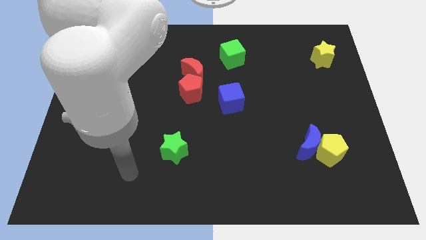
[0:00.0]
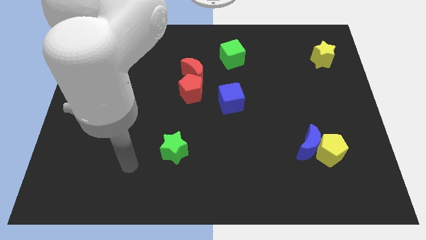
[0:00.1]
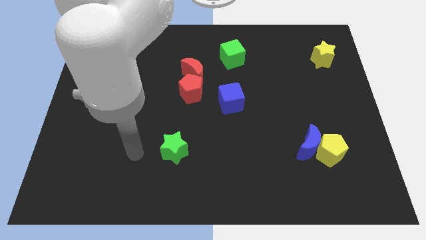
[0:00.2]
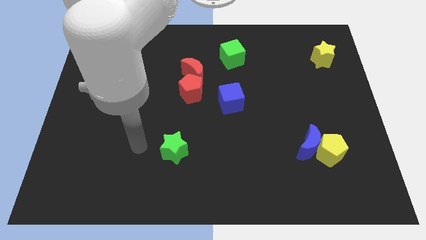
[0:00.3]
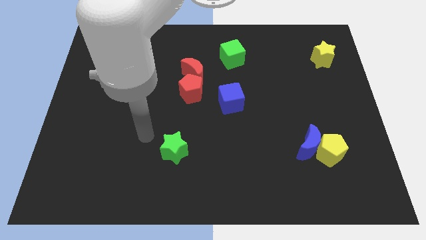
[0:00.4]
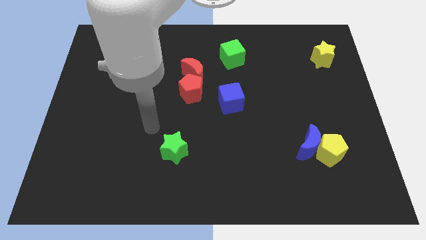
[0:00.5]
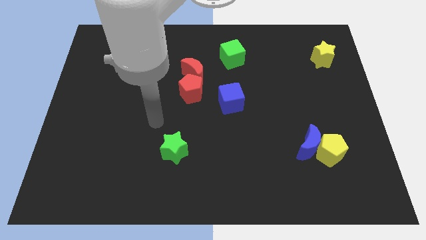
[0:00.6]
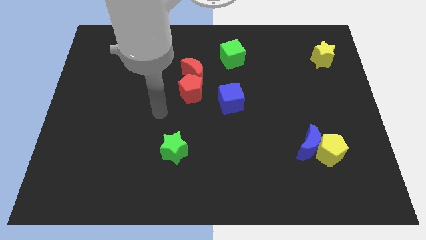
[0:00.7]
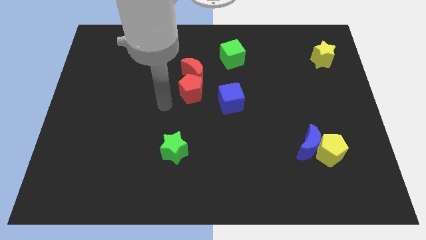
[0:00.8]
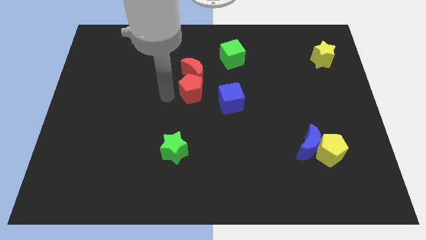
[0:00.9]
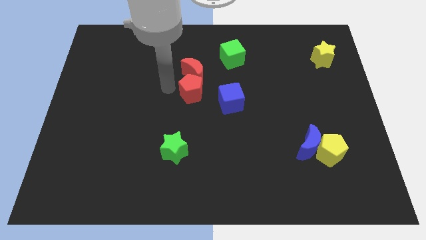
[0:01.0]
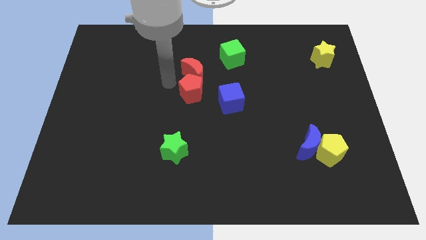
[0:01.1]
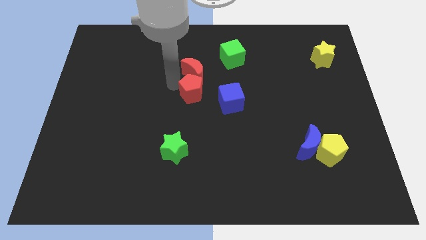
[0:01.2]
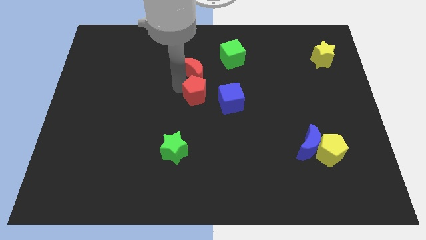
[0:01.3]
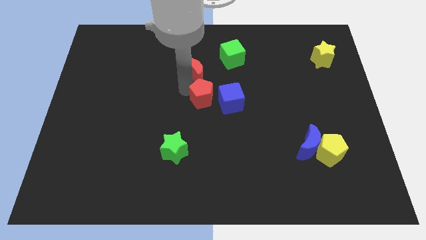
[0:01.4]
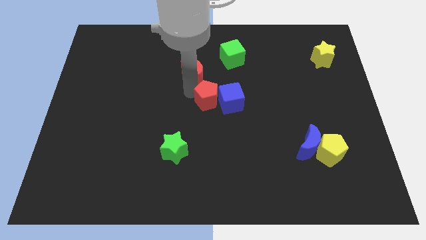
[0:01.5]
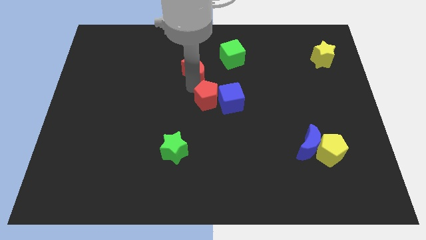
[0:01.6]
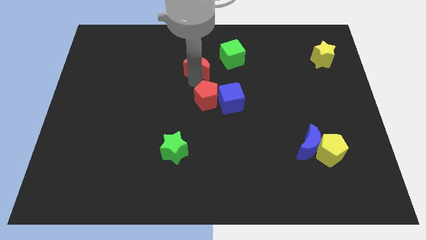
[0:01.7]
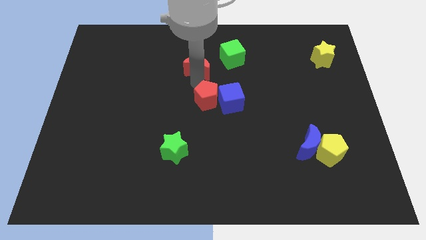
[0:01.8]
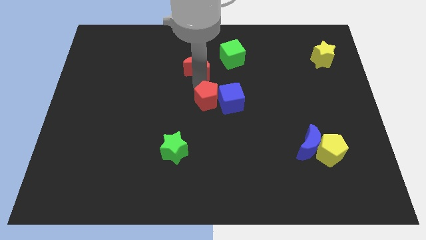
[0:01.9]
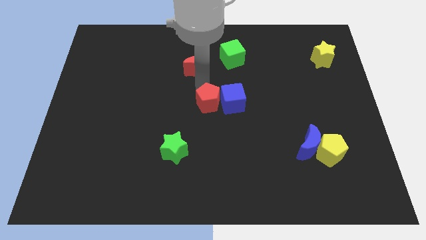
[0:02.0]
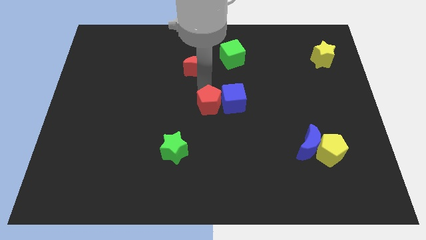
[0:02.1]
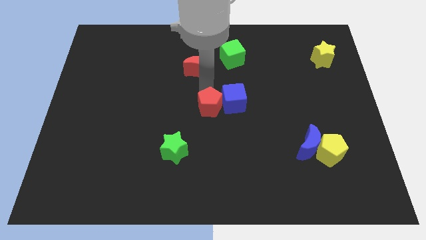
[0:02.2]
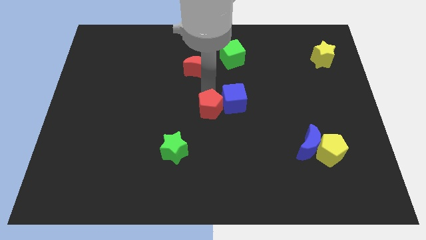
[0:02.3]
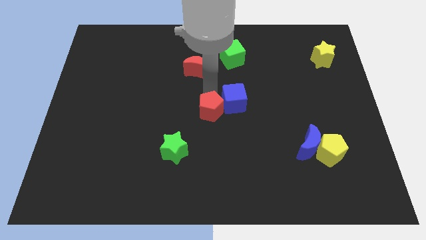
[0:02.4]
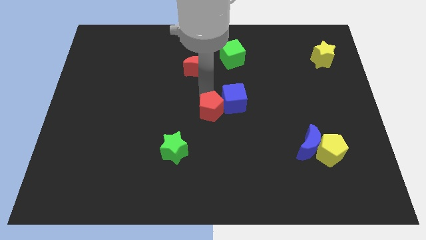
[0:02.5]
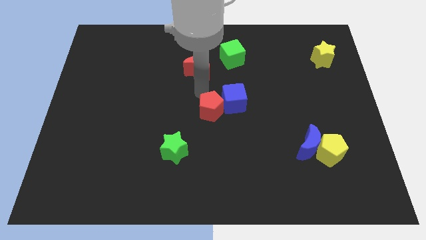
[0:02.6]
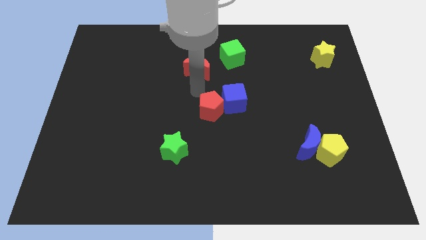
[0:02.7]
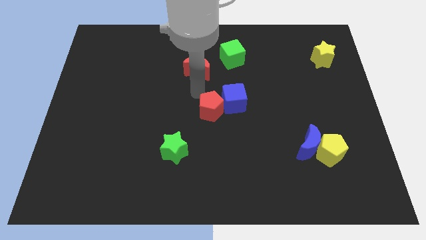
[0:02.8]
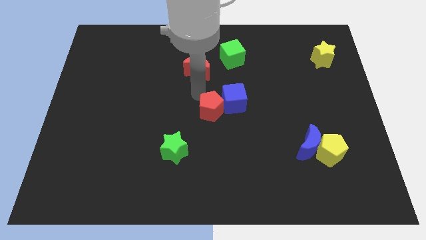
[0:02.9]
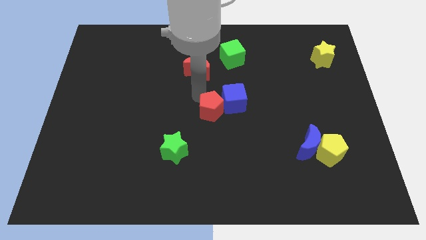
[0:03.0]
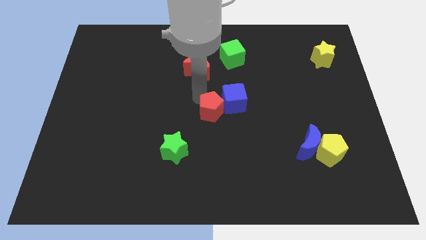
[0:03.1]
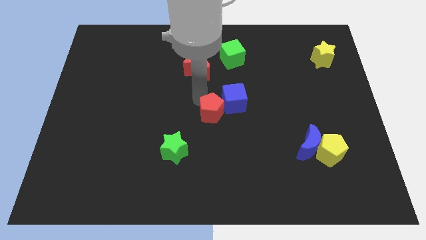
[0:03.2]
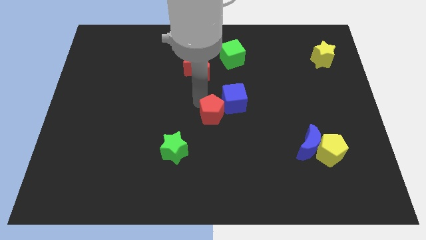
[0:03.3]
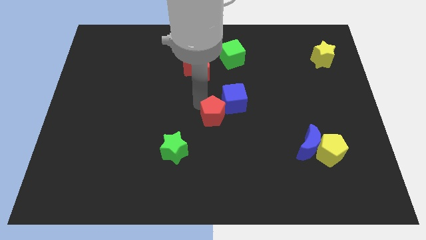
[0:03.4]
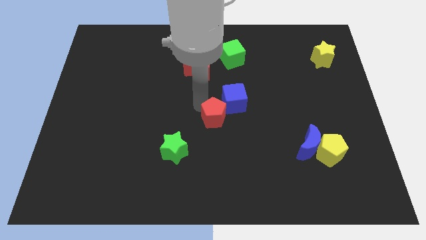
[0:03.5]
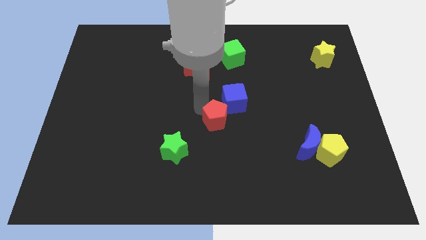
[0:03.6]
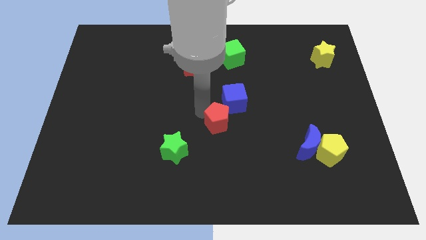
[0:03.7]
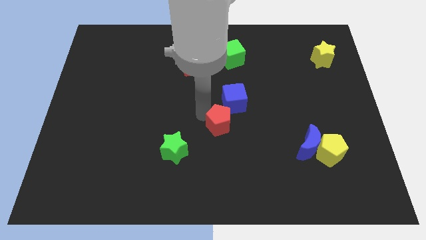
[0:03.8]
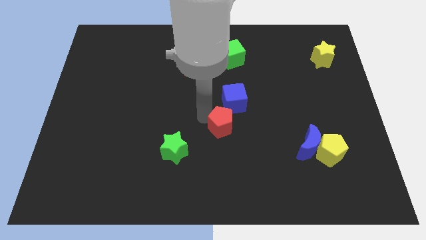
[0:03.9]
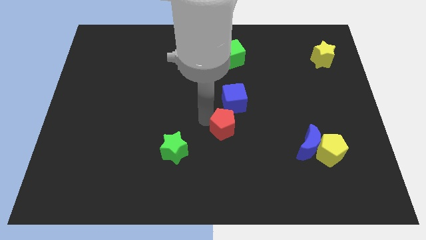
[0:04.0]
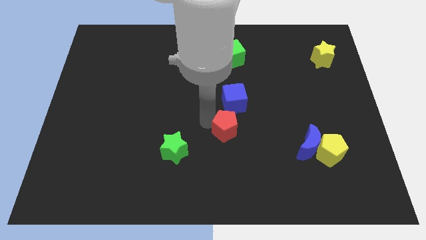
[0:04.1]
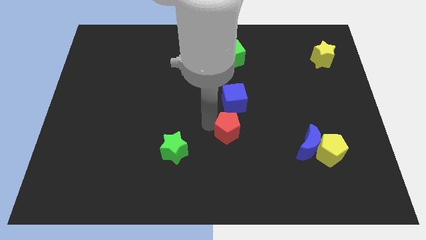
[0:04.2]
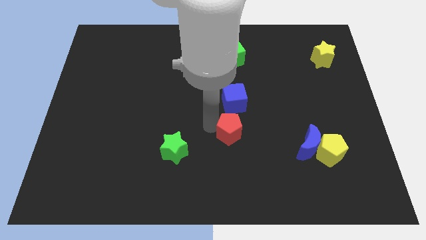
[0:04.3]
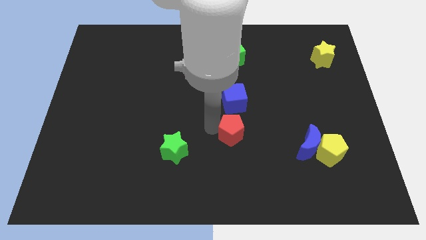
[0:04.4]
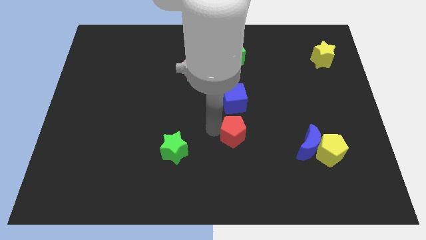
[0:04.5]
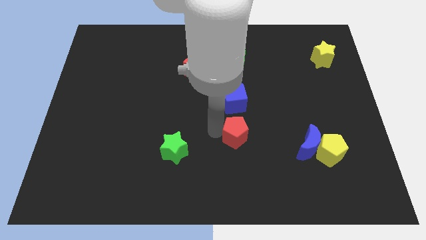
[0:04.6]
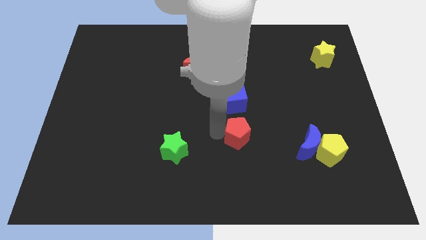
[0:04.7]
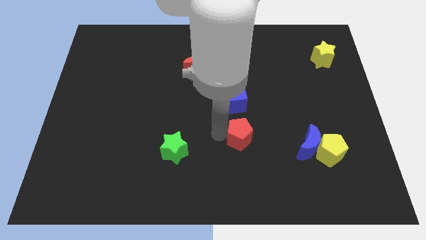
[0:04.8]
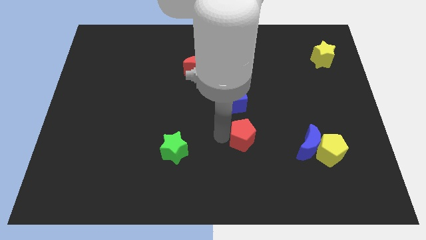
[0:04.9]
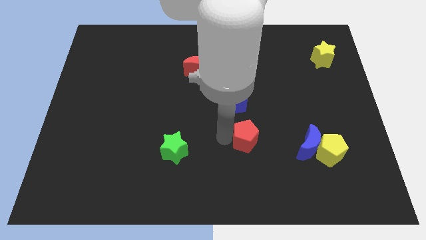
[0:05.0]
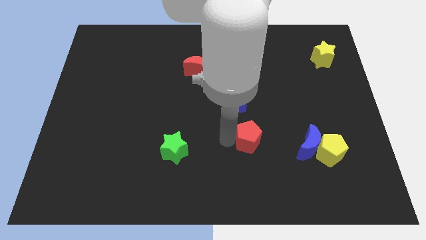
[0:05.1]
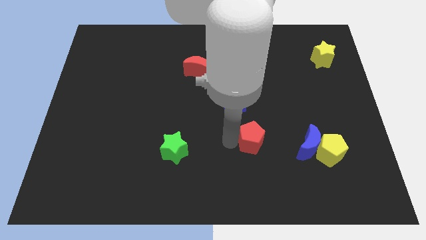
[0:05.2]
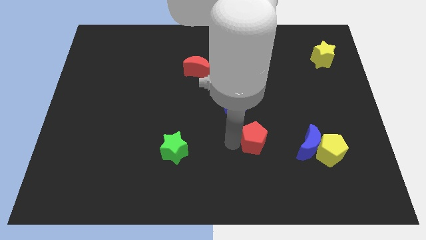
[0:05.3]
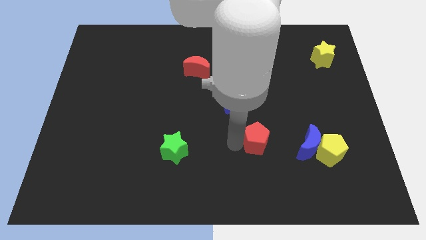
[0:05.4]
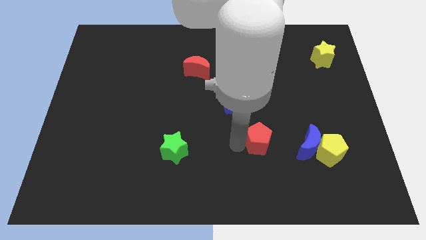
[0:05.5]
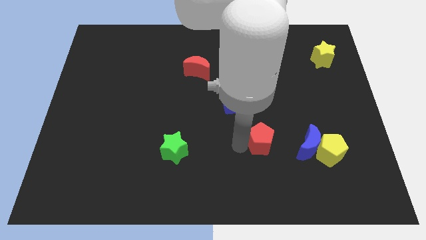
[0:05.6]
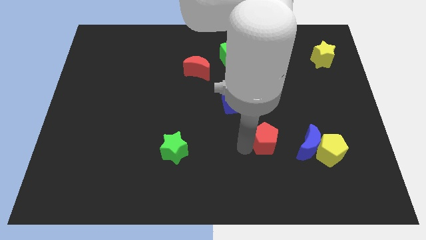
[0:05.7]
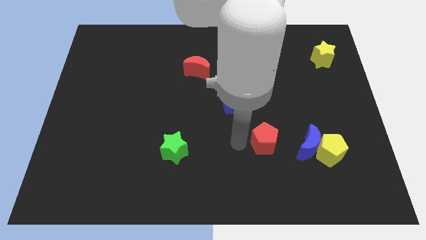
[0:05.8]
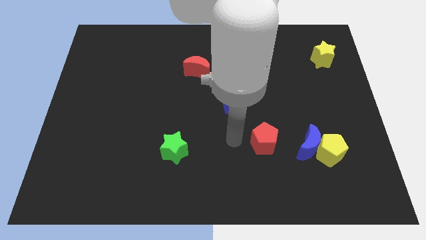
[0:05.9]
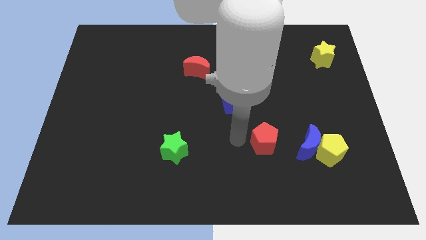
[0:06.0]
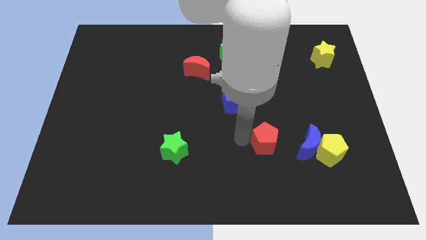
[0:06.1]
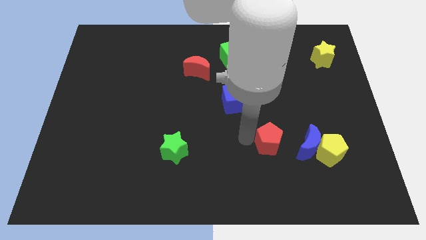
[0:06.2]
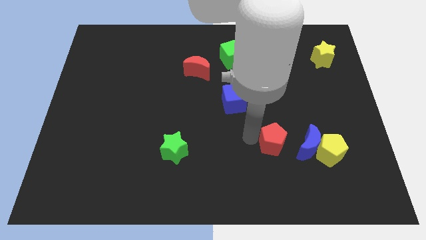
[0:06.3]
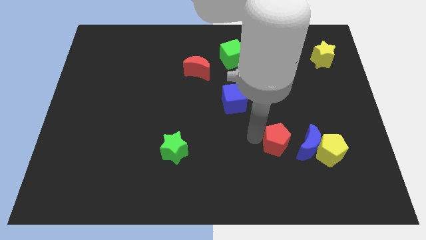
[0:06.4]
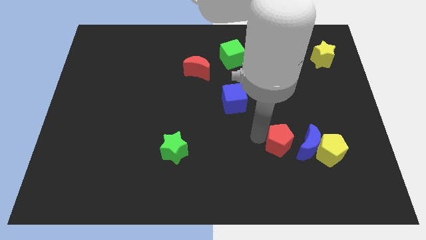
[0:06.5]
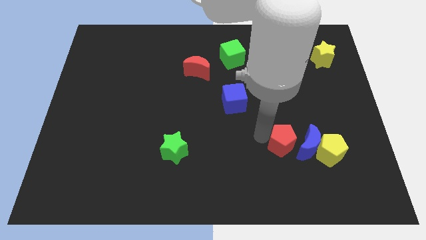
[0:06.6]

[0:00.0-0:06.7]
slide the red pentagon towards the blue moon

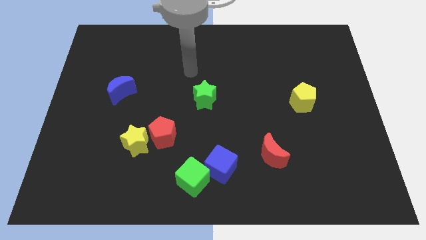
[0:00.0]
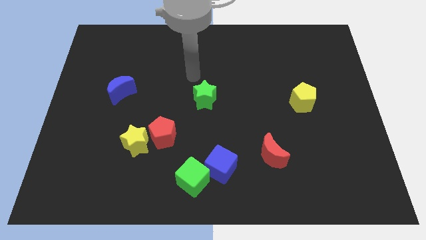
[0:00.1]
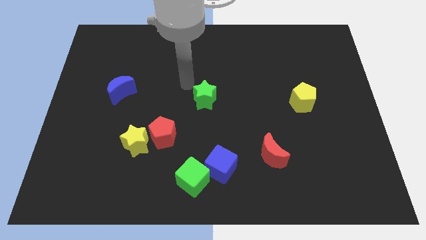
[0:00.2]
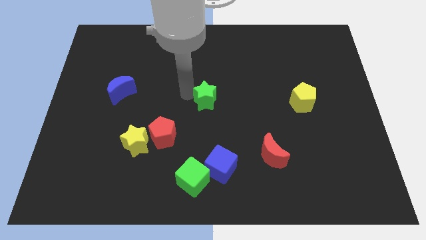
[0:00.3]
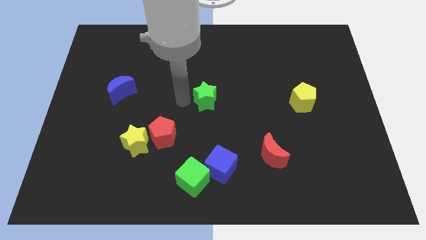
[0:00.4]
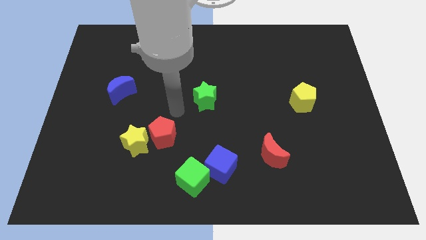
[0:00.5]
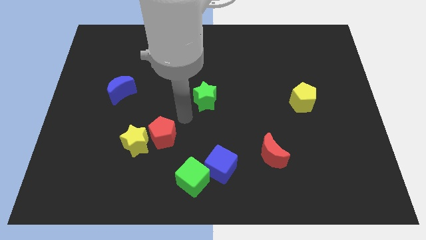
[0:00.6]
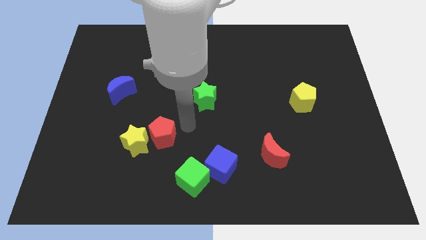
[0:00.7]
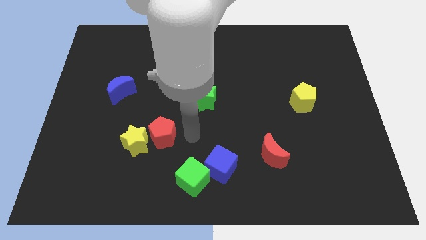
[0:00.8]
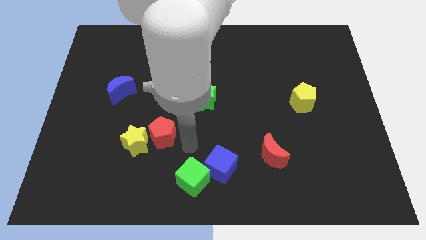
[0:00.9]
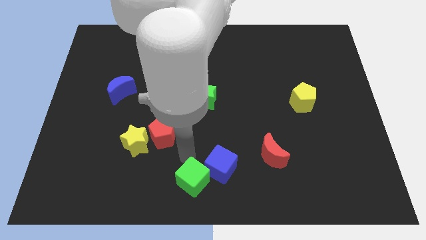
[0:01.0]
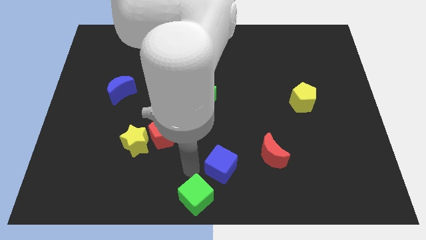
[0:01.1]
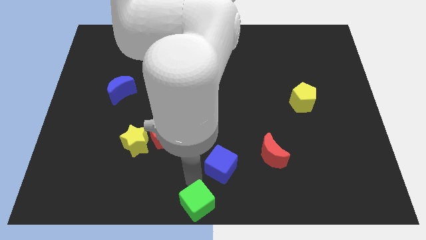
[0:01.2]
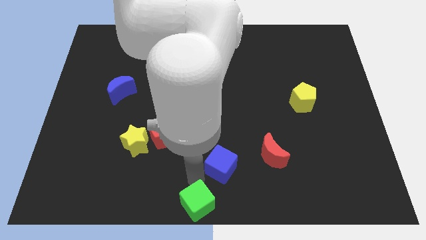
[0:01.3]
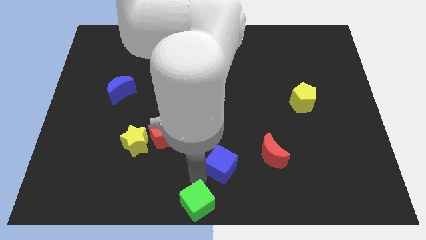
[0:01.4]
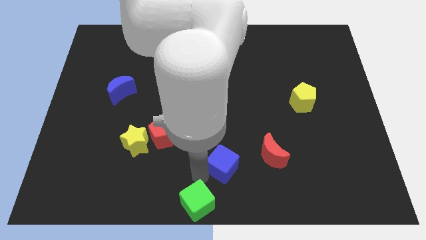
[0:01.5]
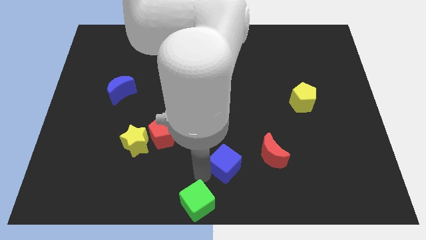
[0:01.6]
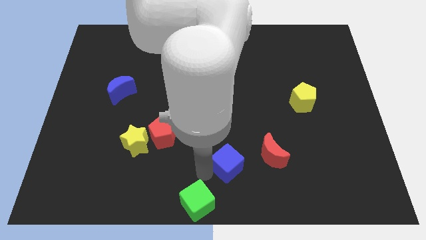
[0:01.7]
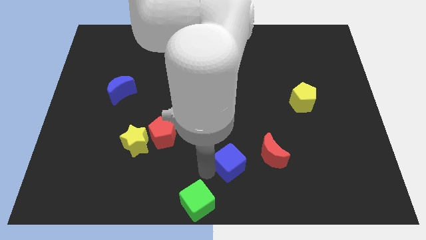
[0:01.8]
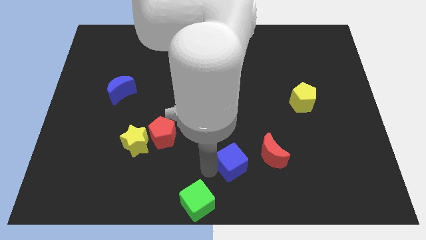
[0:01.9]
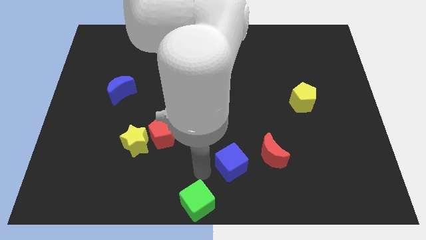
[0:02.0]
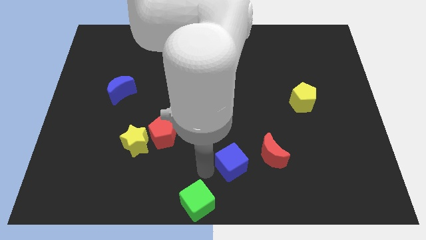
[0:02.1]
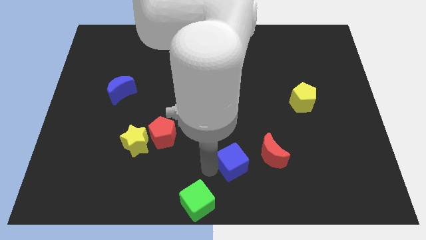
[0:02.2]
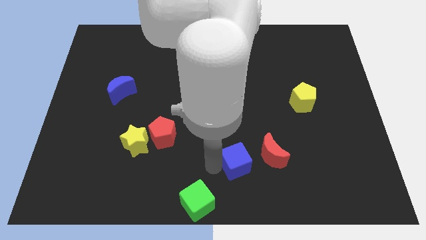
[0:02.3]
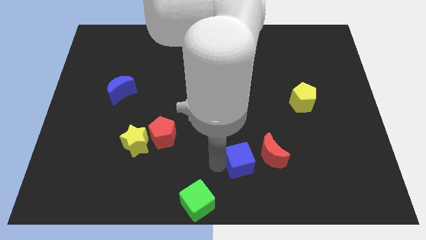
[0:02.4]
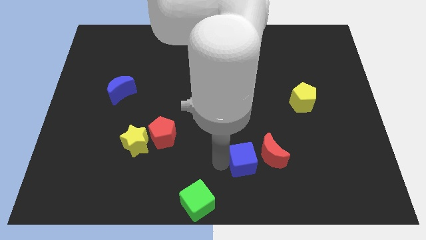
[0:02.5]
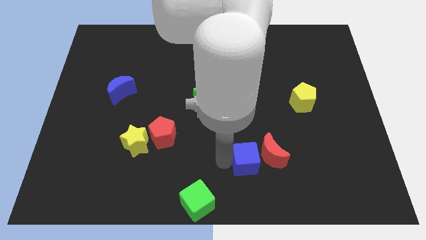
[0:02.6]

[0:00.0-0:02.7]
slide the blue cube to the red moon
